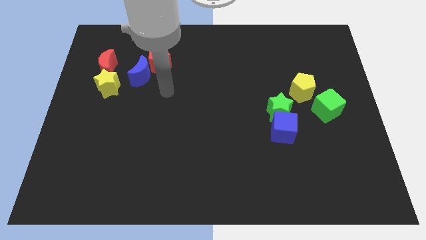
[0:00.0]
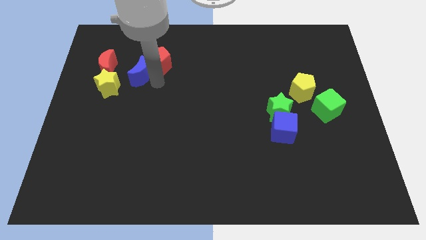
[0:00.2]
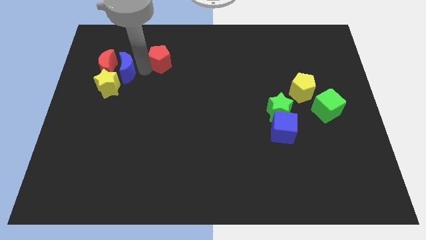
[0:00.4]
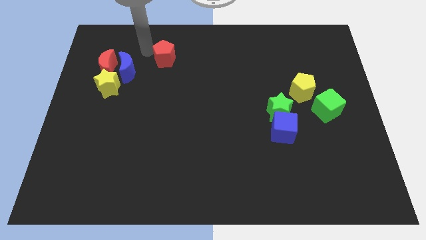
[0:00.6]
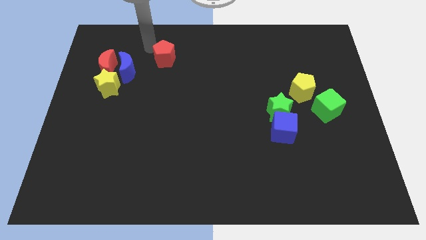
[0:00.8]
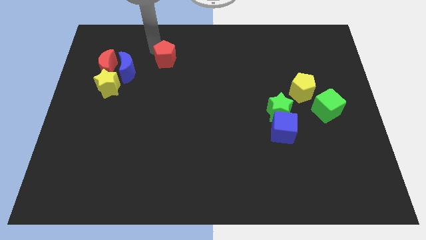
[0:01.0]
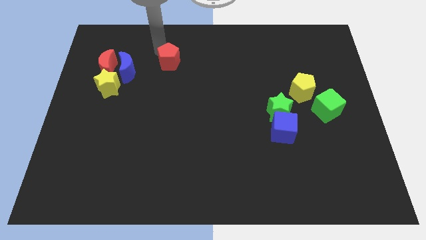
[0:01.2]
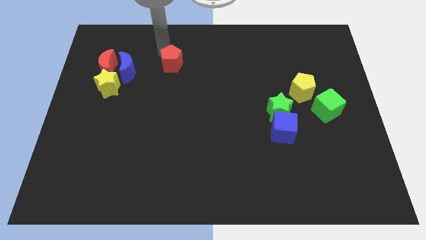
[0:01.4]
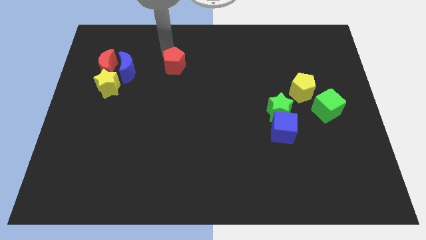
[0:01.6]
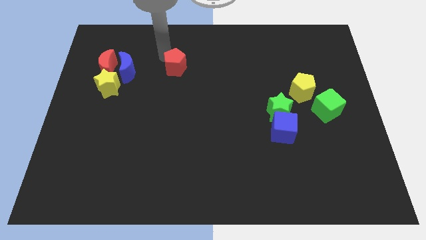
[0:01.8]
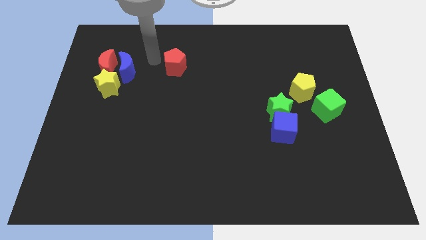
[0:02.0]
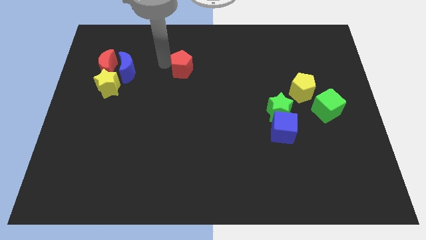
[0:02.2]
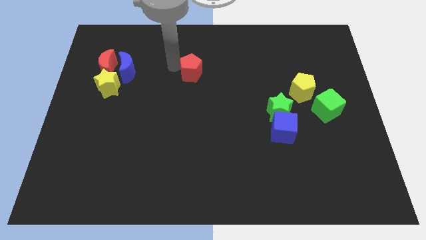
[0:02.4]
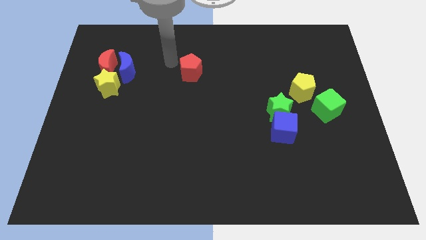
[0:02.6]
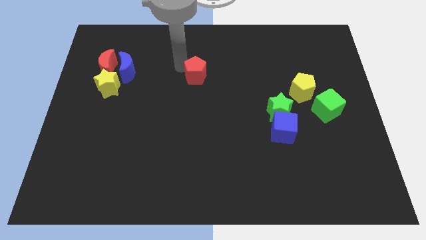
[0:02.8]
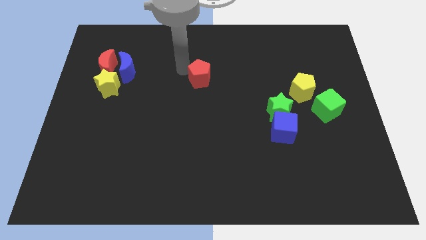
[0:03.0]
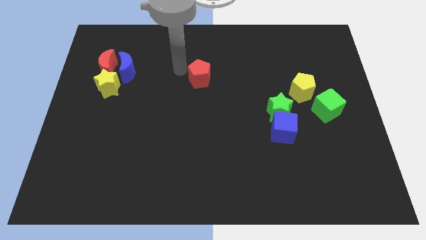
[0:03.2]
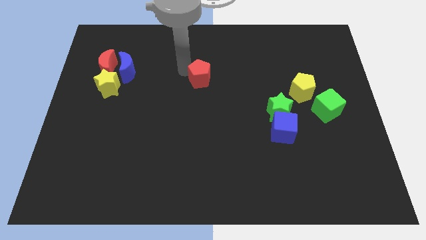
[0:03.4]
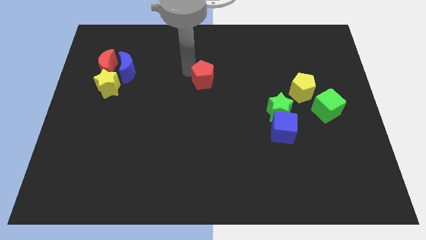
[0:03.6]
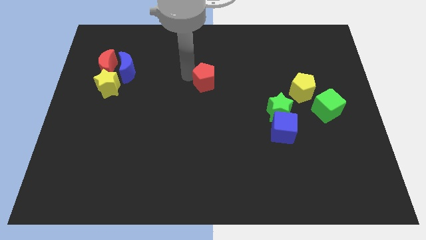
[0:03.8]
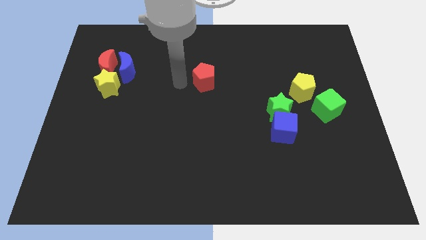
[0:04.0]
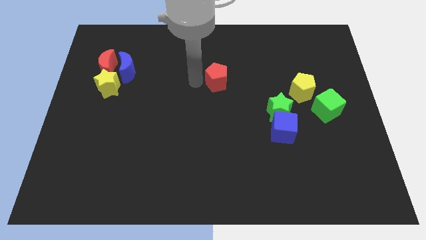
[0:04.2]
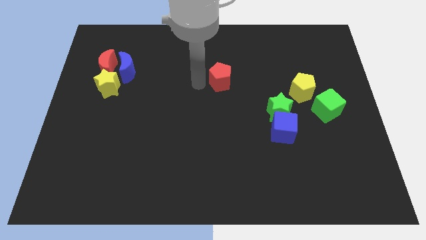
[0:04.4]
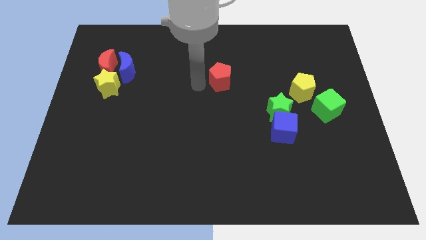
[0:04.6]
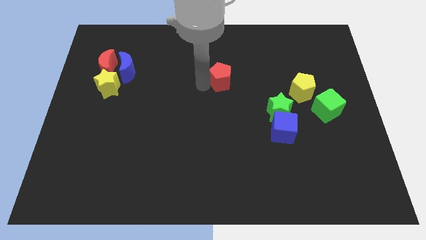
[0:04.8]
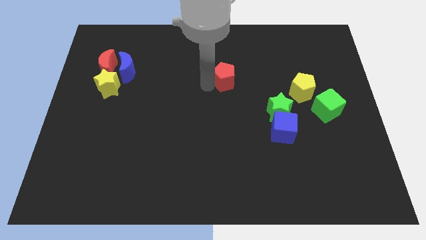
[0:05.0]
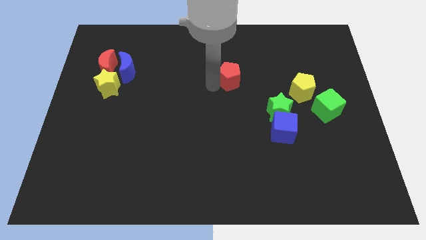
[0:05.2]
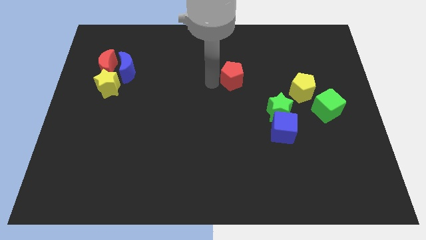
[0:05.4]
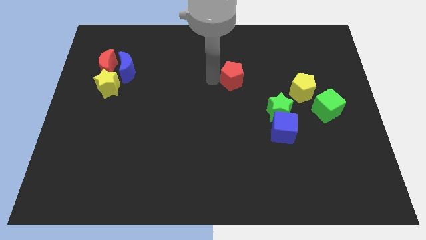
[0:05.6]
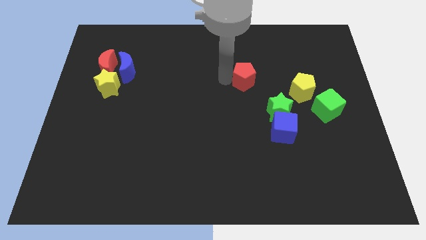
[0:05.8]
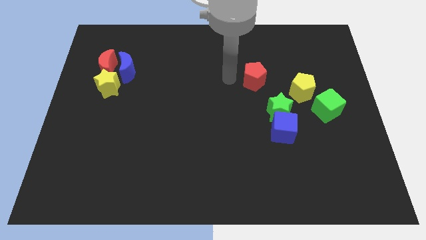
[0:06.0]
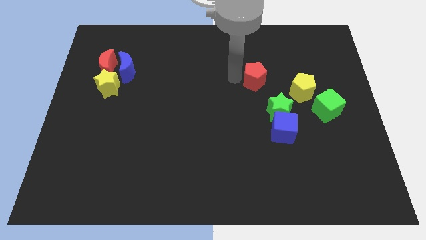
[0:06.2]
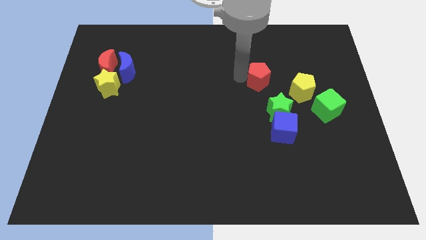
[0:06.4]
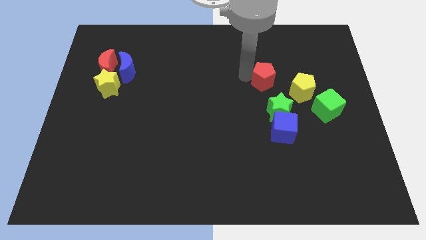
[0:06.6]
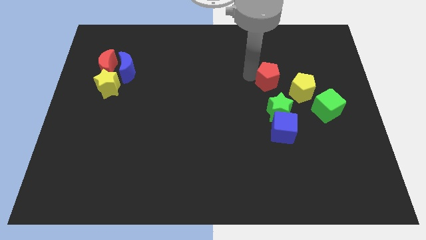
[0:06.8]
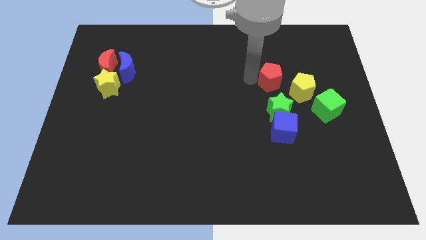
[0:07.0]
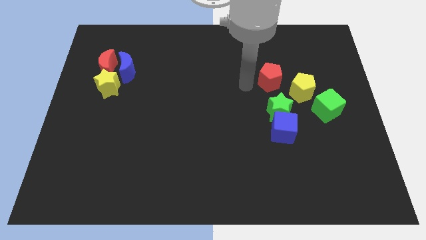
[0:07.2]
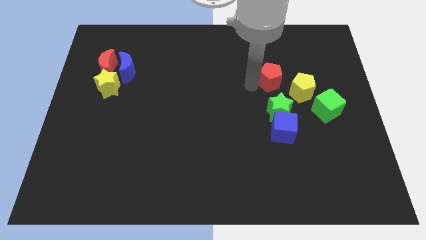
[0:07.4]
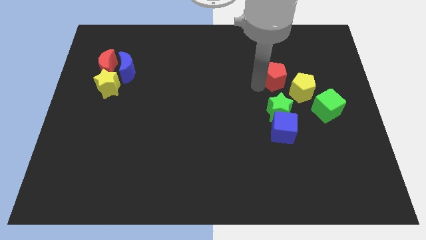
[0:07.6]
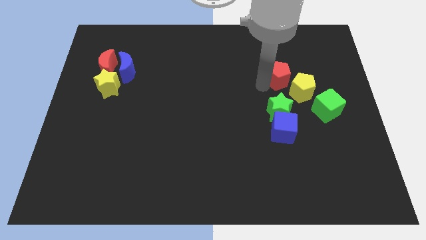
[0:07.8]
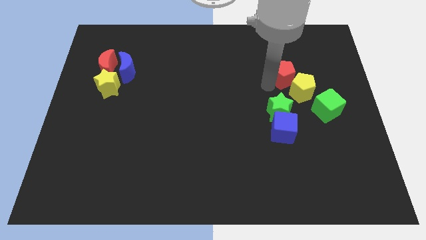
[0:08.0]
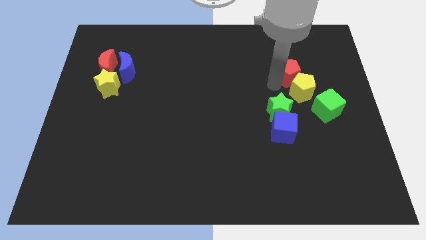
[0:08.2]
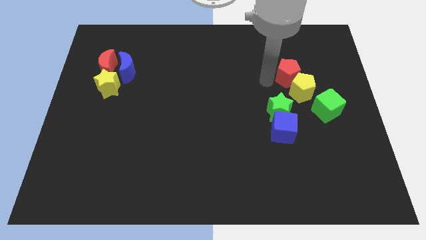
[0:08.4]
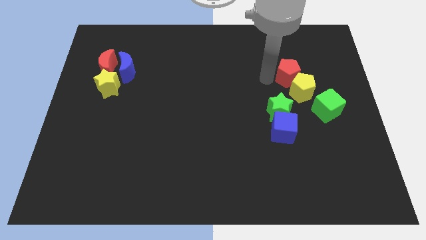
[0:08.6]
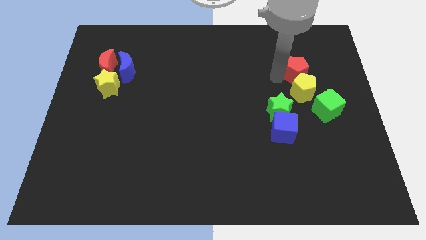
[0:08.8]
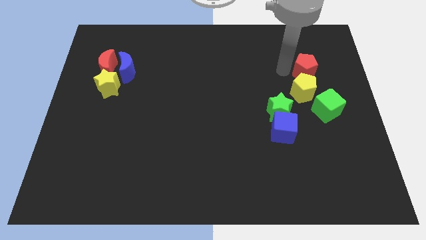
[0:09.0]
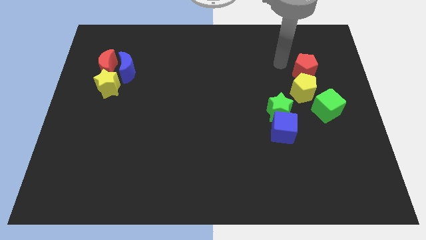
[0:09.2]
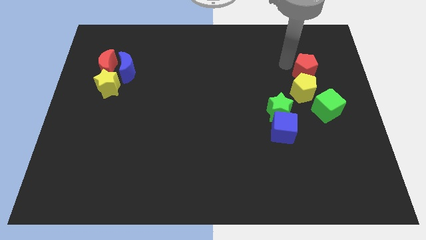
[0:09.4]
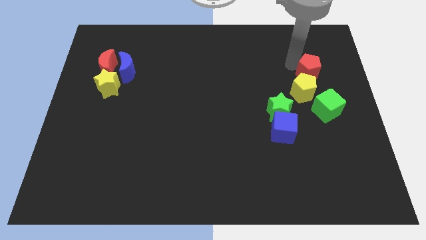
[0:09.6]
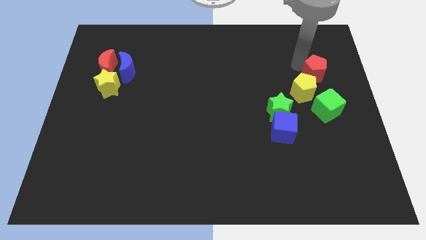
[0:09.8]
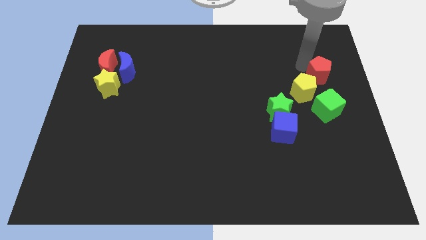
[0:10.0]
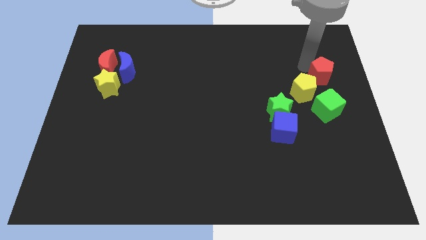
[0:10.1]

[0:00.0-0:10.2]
put the red pentagon to the center right

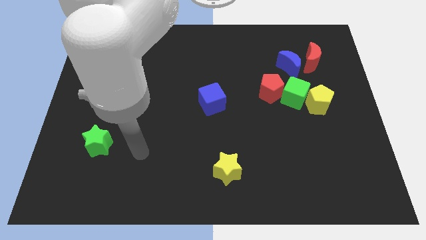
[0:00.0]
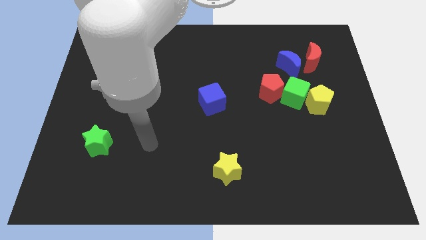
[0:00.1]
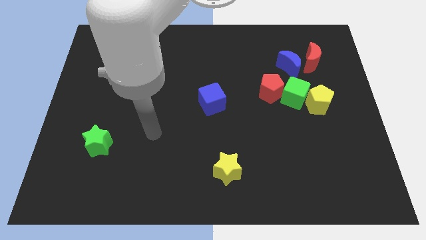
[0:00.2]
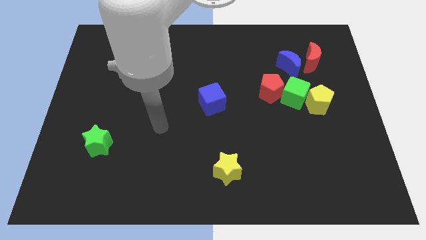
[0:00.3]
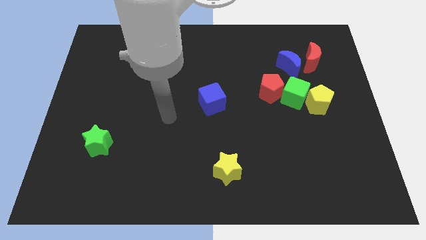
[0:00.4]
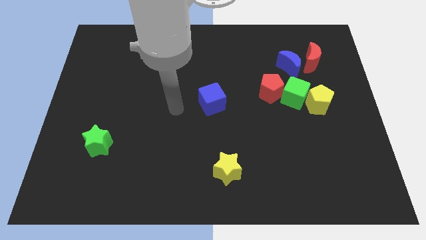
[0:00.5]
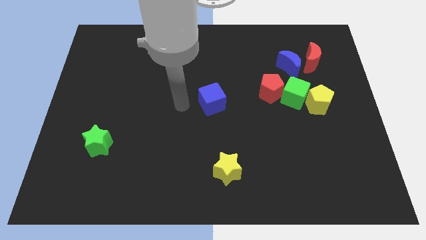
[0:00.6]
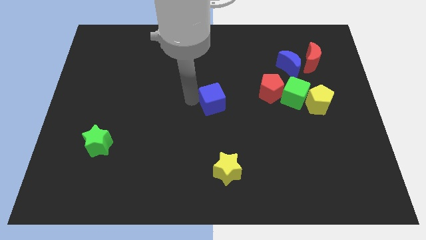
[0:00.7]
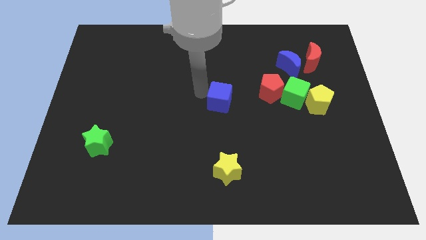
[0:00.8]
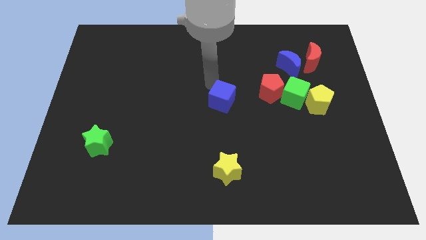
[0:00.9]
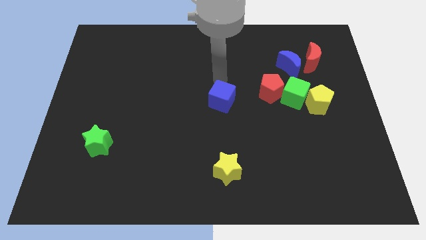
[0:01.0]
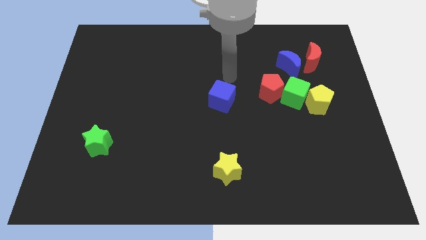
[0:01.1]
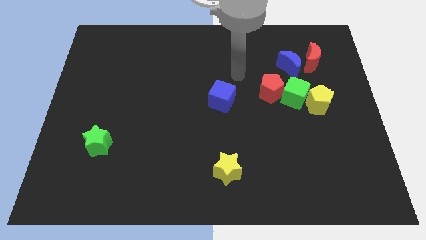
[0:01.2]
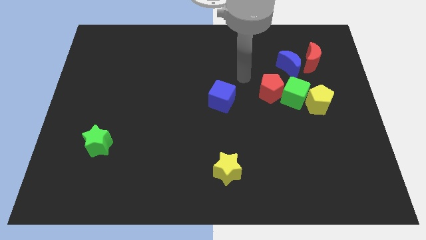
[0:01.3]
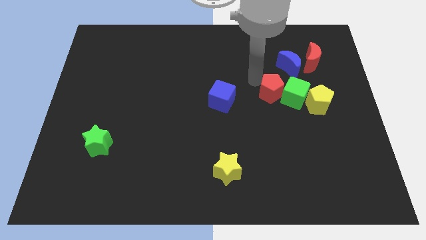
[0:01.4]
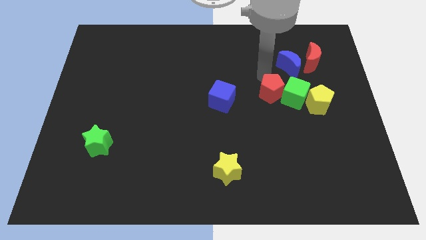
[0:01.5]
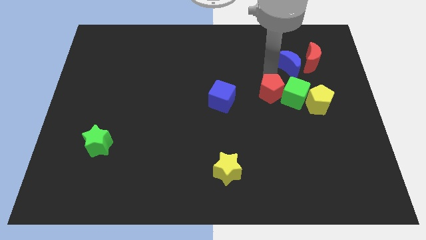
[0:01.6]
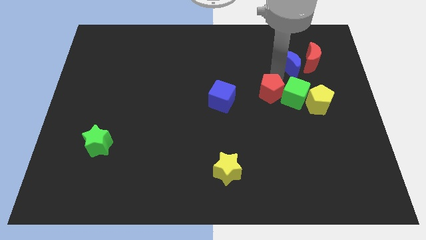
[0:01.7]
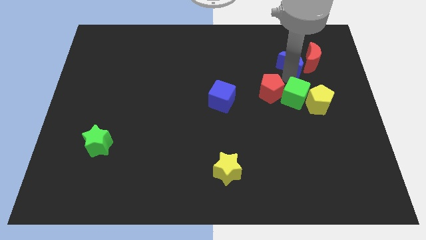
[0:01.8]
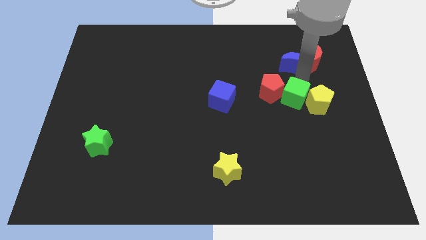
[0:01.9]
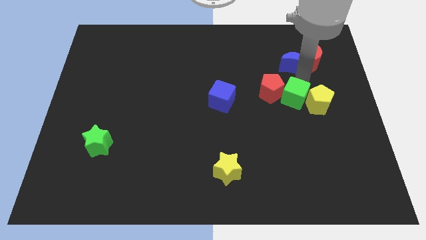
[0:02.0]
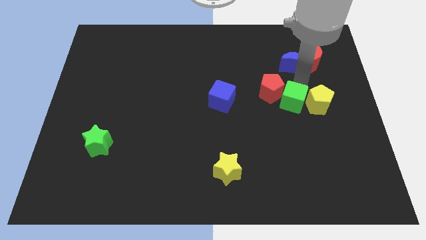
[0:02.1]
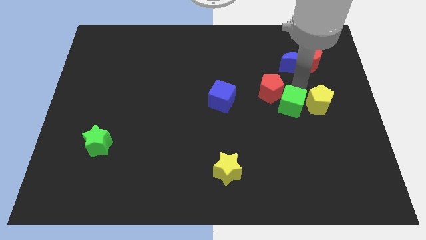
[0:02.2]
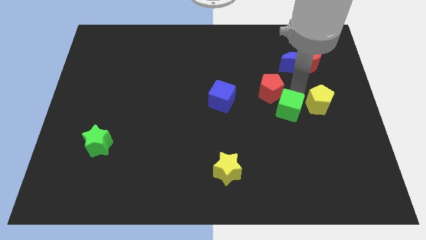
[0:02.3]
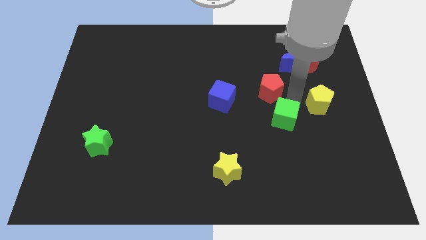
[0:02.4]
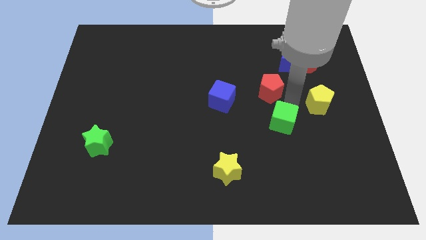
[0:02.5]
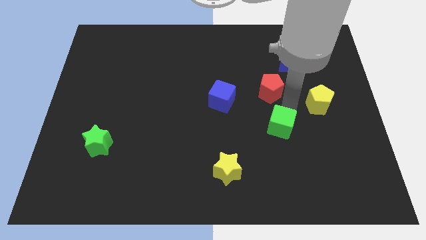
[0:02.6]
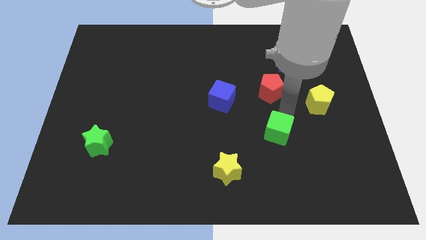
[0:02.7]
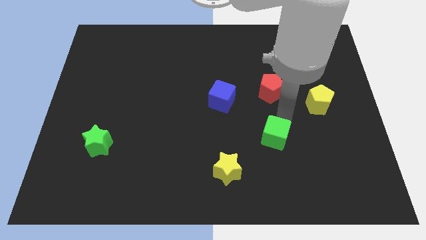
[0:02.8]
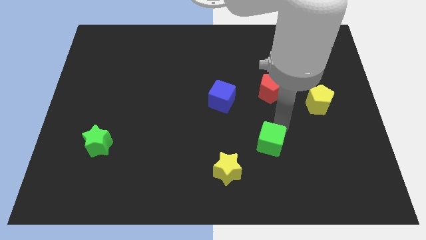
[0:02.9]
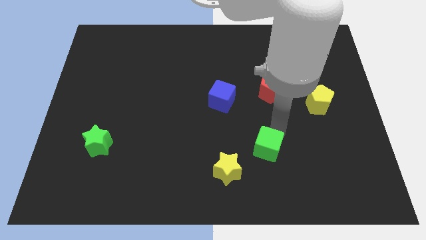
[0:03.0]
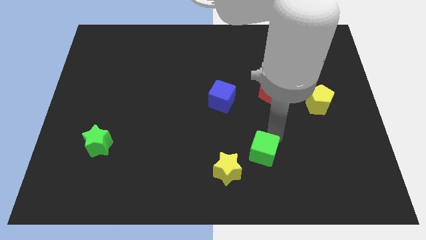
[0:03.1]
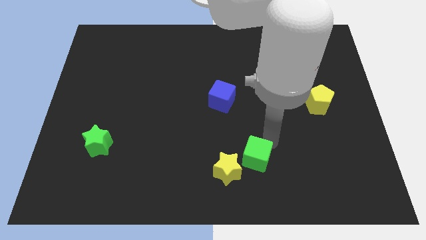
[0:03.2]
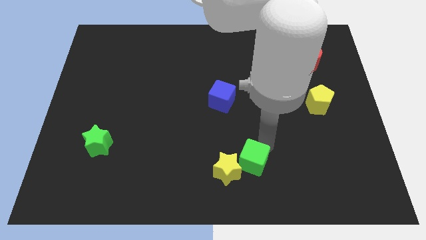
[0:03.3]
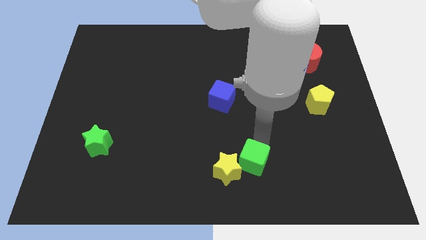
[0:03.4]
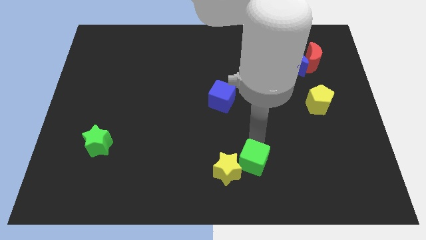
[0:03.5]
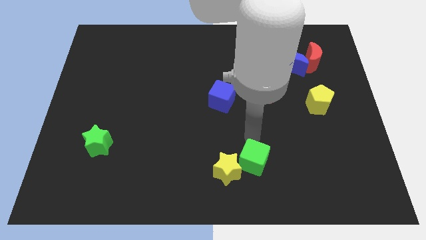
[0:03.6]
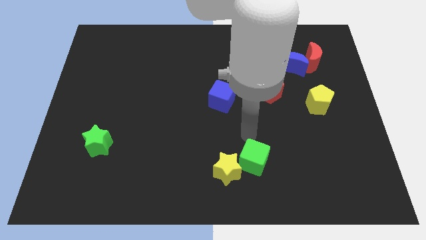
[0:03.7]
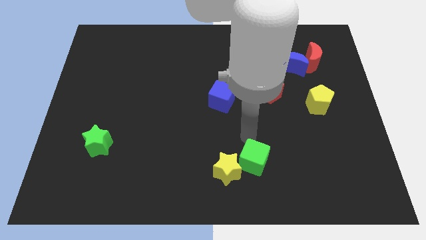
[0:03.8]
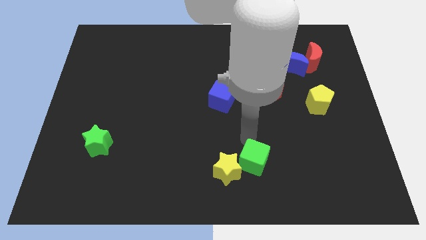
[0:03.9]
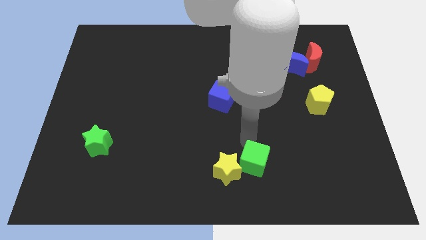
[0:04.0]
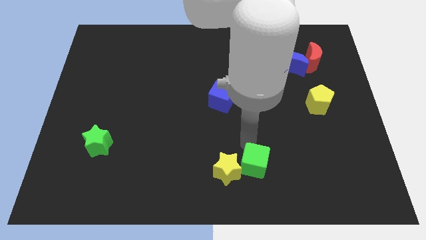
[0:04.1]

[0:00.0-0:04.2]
slide the green cube to the bottom side
